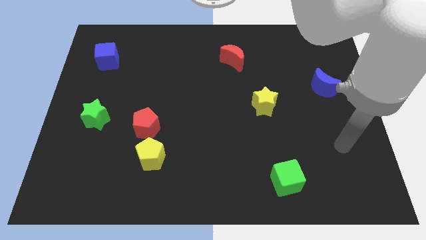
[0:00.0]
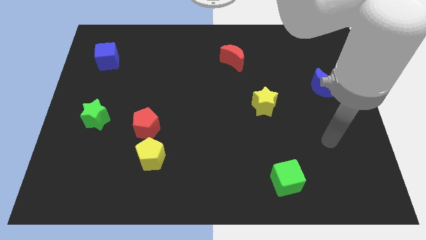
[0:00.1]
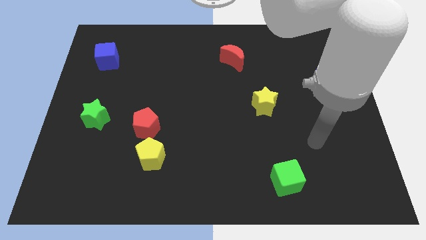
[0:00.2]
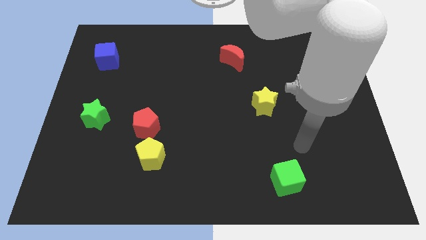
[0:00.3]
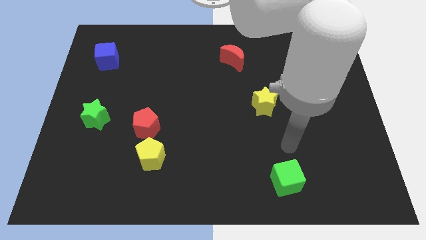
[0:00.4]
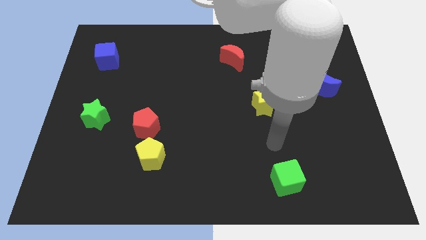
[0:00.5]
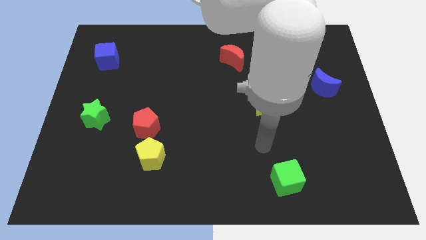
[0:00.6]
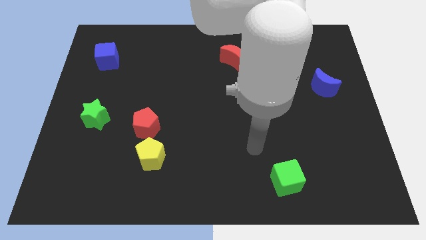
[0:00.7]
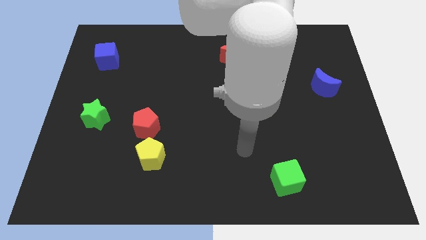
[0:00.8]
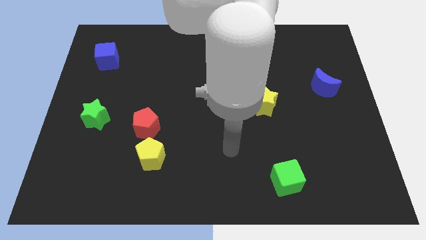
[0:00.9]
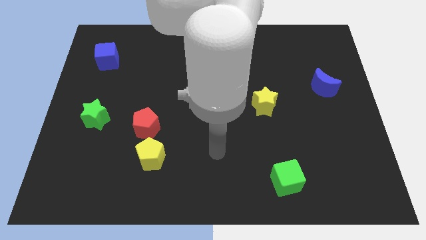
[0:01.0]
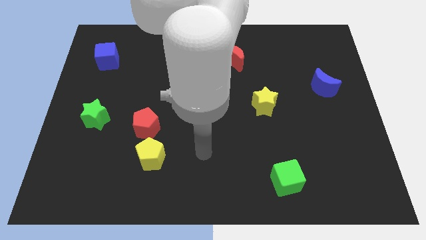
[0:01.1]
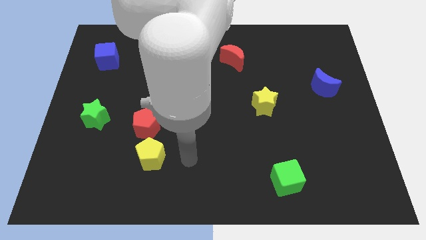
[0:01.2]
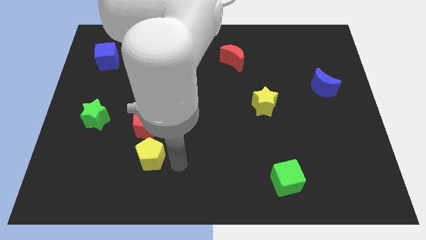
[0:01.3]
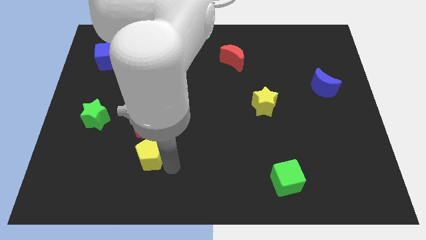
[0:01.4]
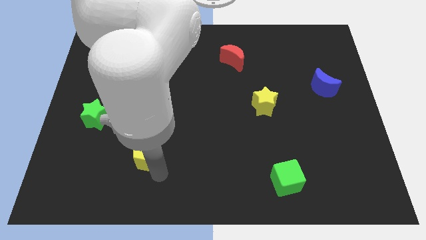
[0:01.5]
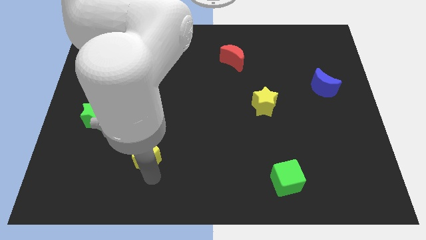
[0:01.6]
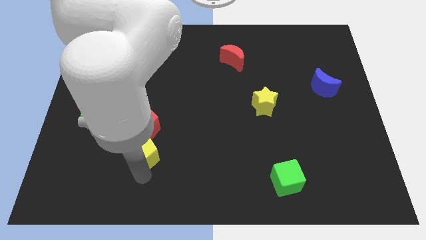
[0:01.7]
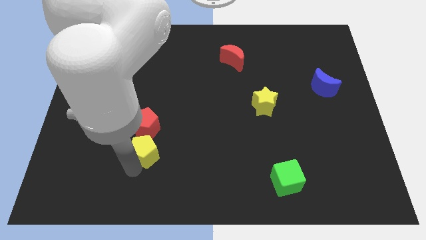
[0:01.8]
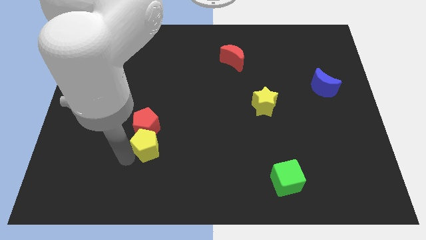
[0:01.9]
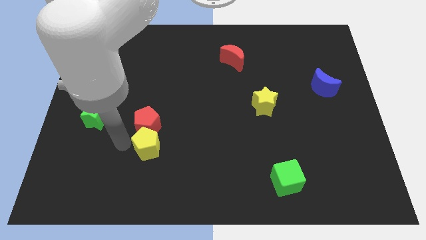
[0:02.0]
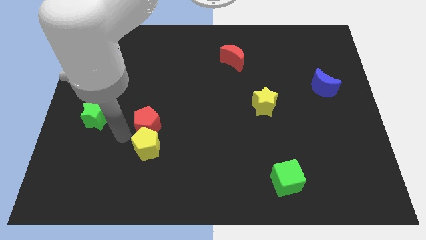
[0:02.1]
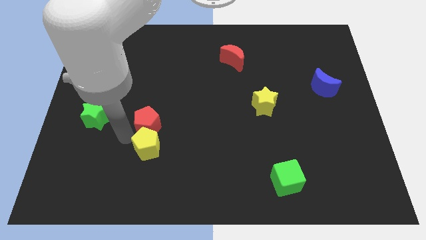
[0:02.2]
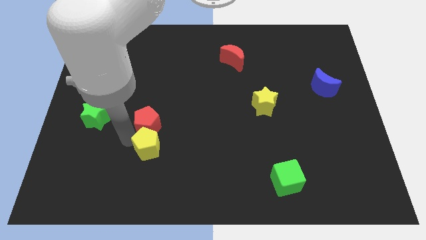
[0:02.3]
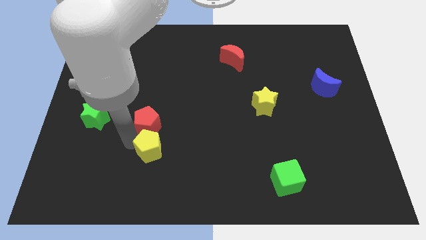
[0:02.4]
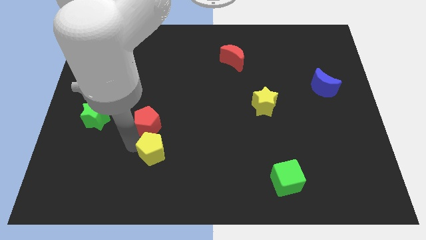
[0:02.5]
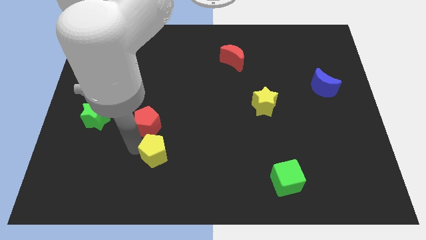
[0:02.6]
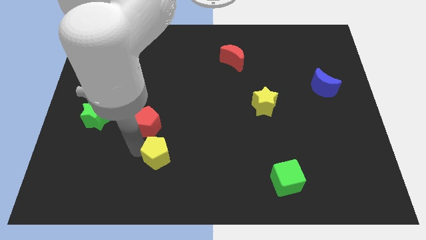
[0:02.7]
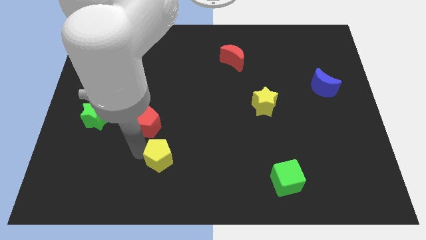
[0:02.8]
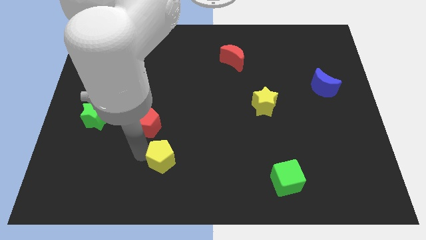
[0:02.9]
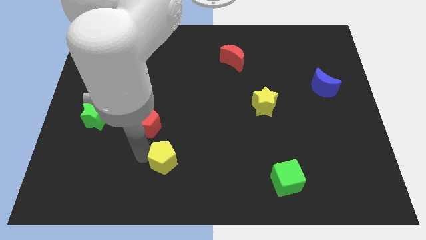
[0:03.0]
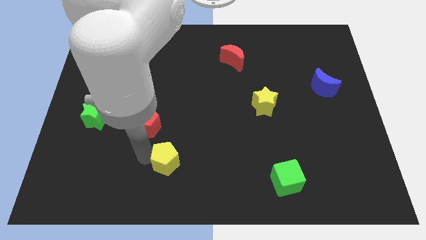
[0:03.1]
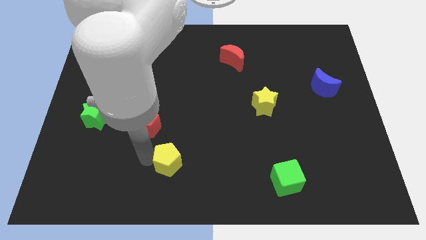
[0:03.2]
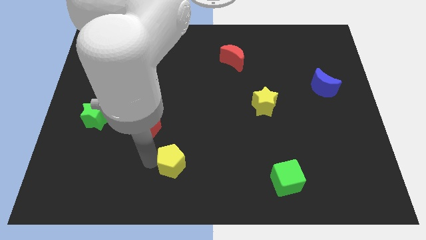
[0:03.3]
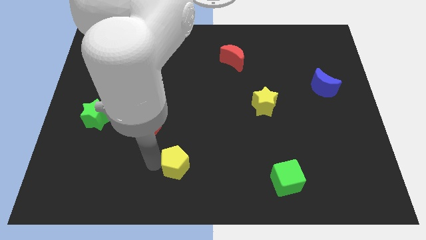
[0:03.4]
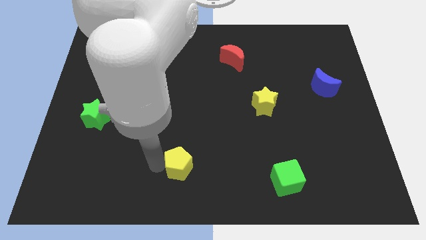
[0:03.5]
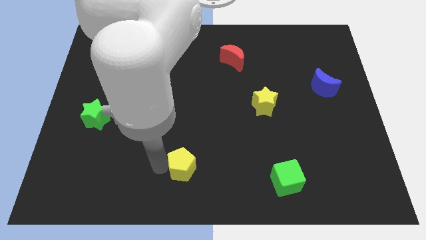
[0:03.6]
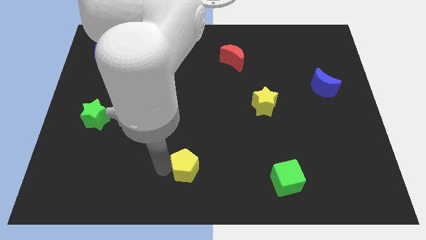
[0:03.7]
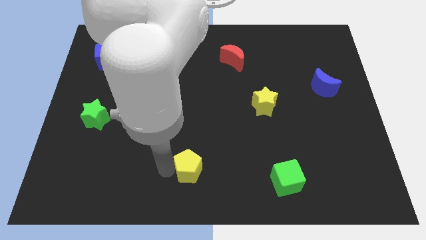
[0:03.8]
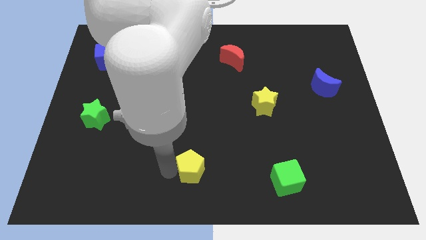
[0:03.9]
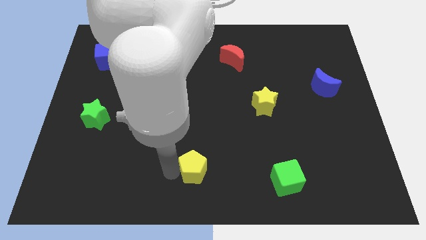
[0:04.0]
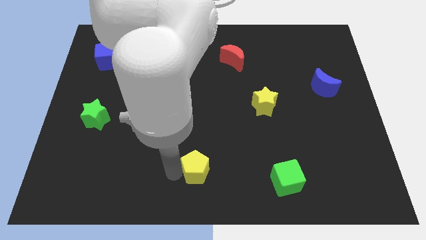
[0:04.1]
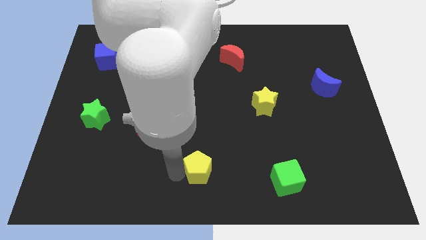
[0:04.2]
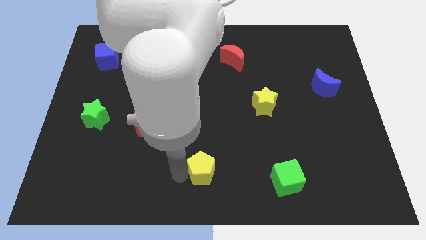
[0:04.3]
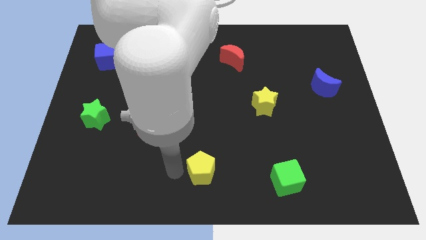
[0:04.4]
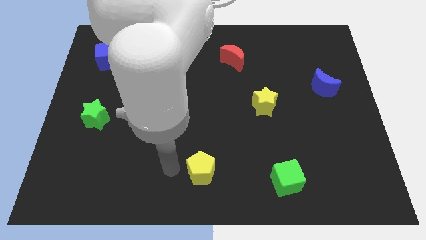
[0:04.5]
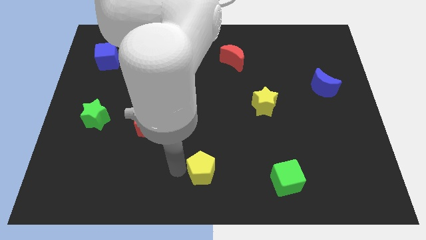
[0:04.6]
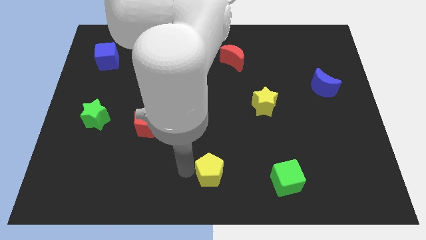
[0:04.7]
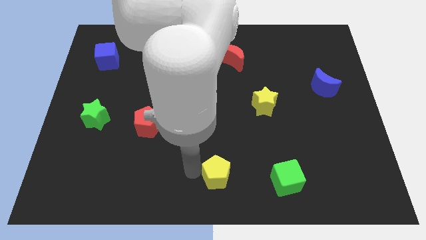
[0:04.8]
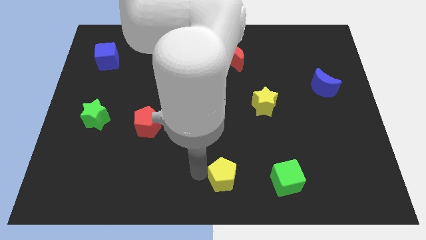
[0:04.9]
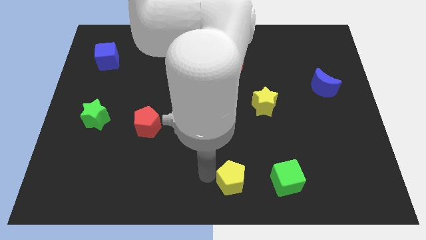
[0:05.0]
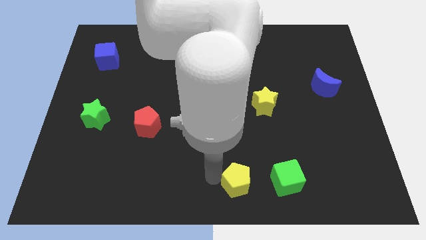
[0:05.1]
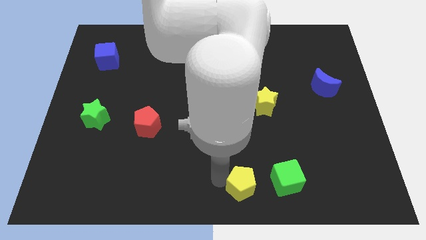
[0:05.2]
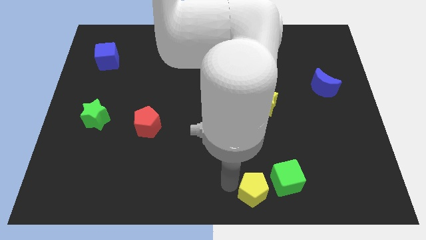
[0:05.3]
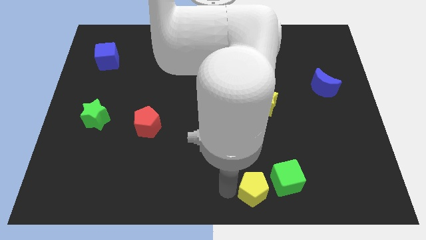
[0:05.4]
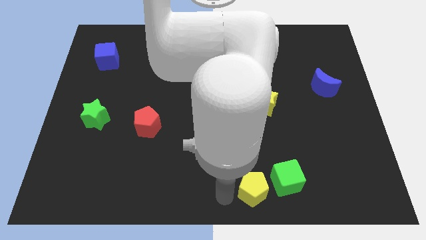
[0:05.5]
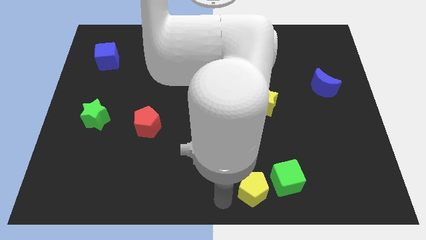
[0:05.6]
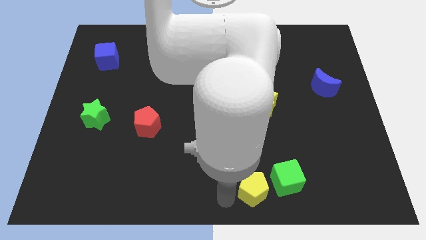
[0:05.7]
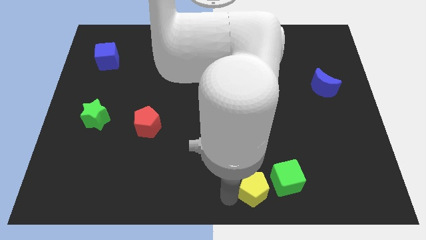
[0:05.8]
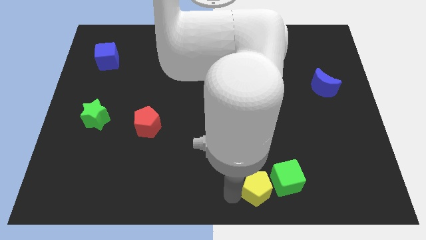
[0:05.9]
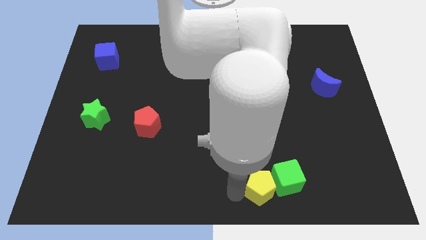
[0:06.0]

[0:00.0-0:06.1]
move the yellow pentagon close to the green cube

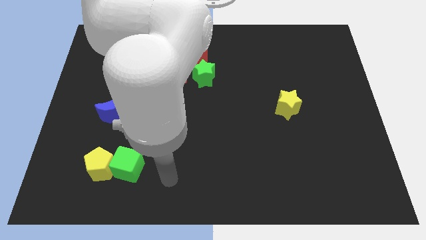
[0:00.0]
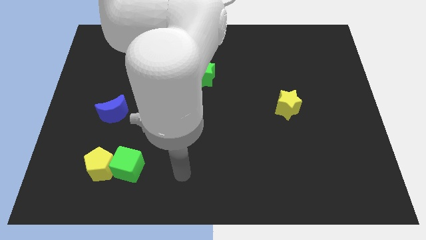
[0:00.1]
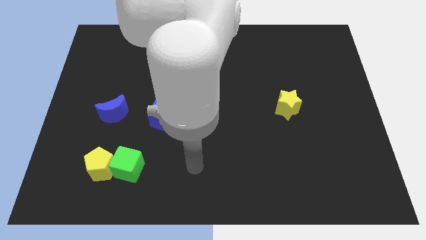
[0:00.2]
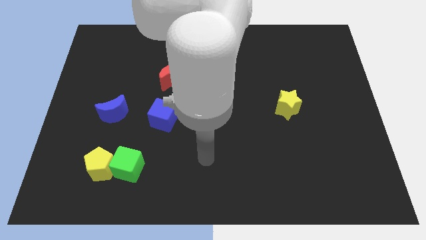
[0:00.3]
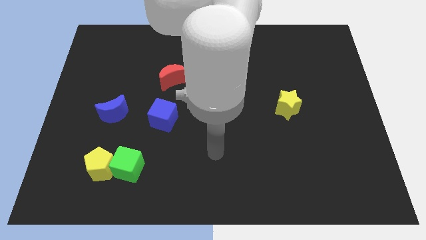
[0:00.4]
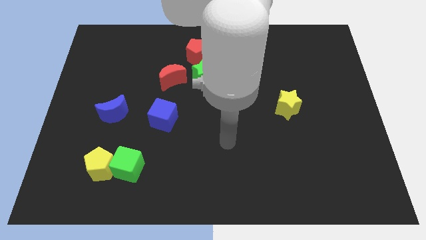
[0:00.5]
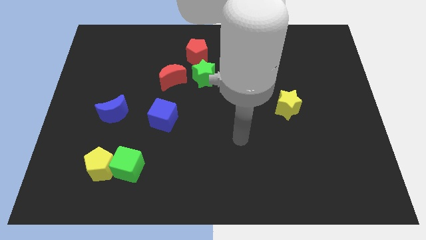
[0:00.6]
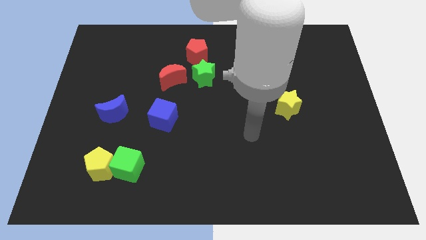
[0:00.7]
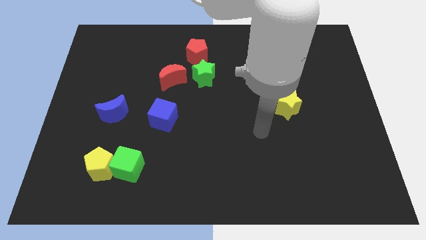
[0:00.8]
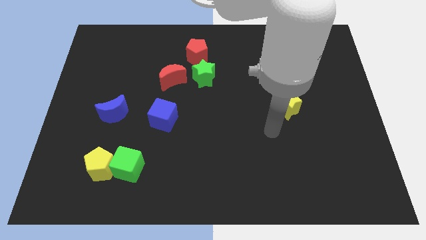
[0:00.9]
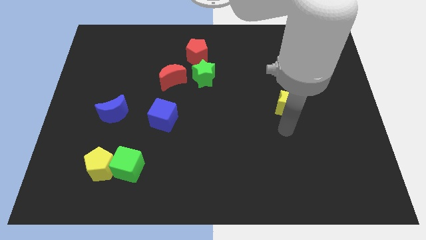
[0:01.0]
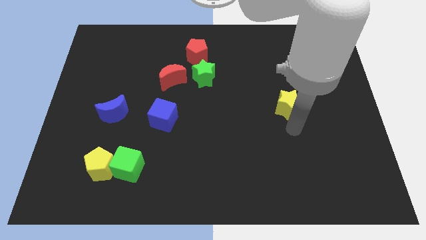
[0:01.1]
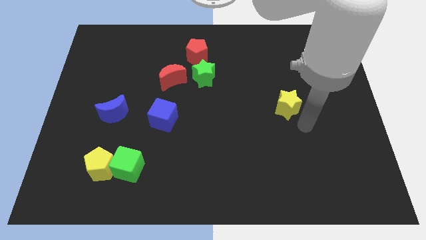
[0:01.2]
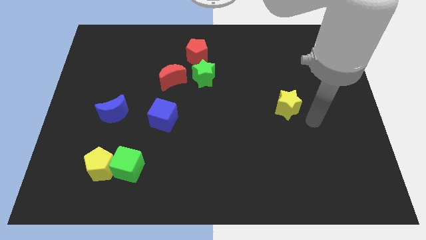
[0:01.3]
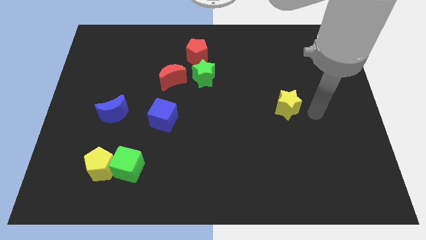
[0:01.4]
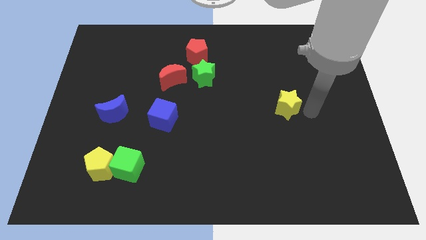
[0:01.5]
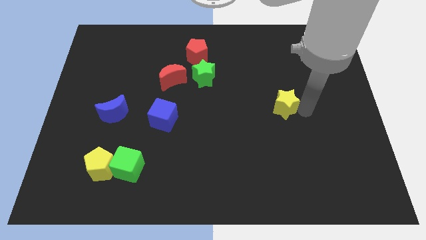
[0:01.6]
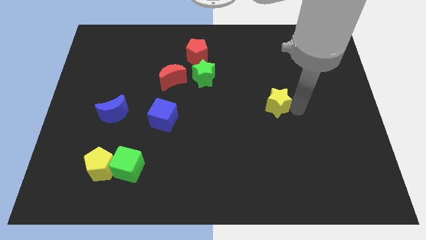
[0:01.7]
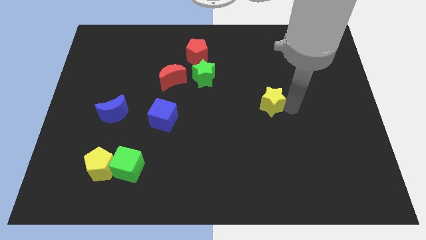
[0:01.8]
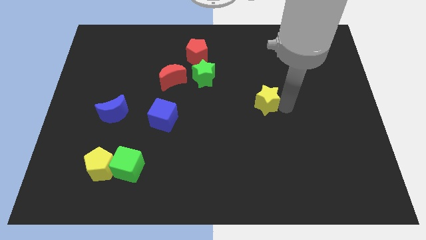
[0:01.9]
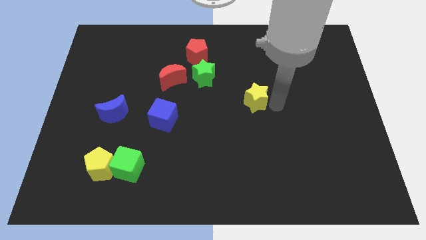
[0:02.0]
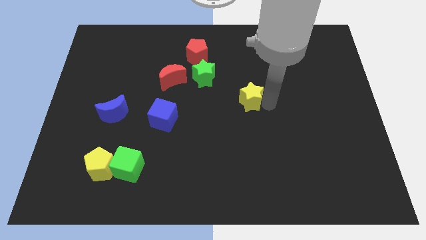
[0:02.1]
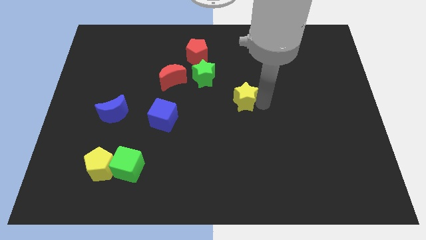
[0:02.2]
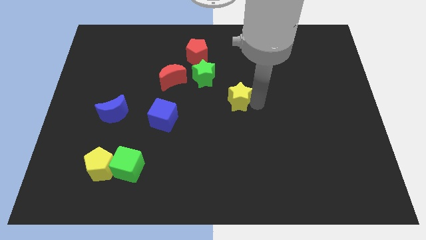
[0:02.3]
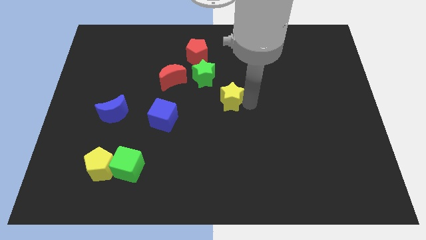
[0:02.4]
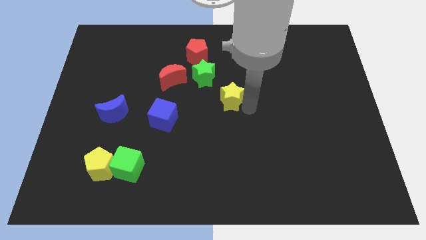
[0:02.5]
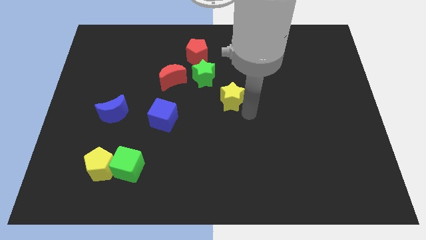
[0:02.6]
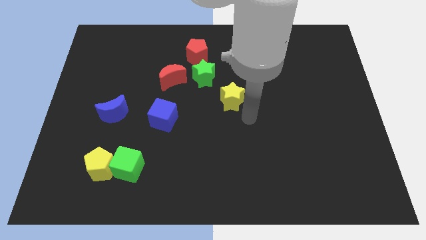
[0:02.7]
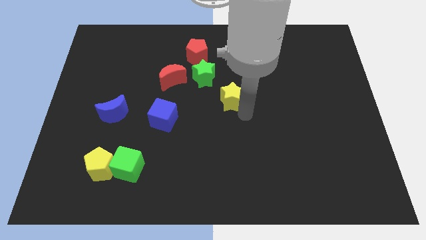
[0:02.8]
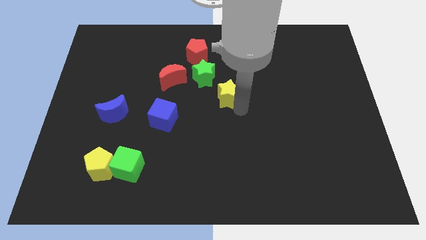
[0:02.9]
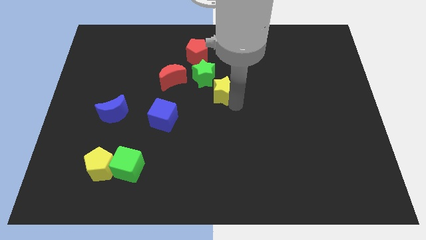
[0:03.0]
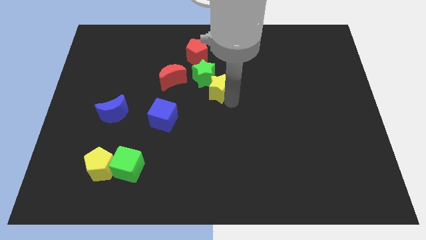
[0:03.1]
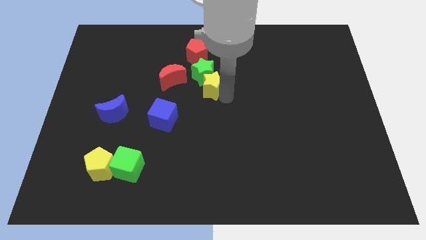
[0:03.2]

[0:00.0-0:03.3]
slide the yellow star towards the green star
